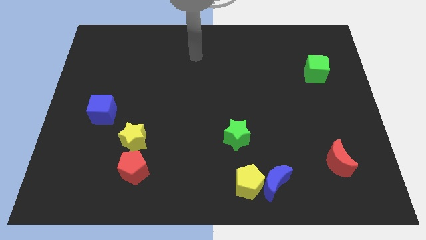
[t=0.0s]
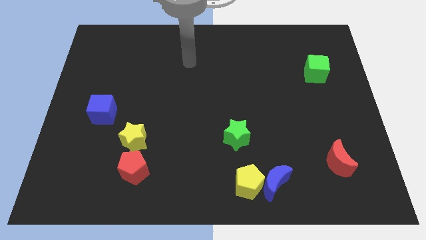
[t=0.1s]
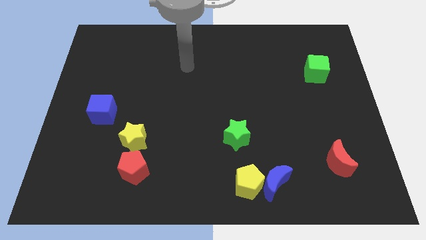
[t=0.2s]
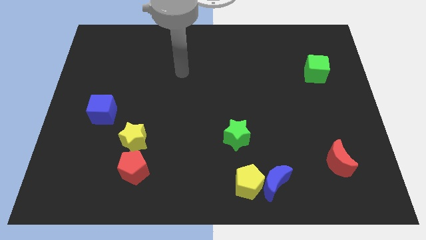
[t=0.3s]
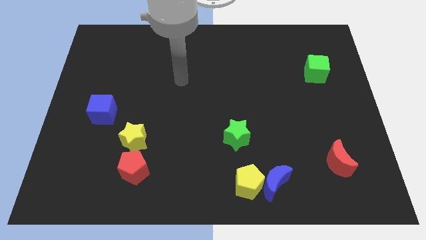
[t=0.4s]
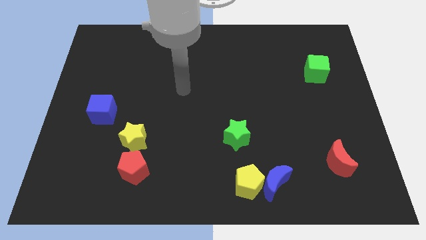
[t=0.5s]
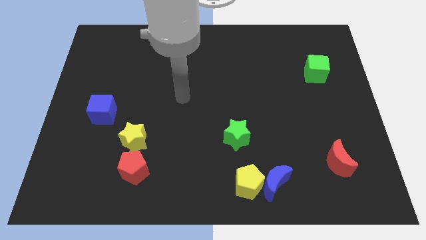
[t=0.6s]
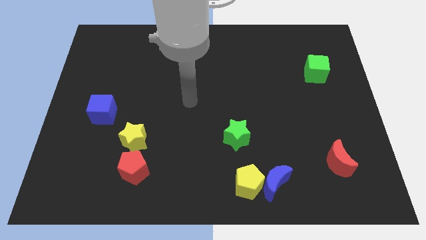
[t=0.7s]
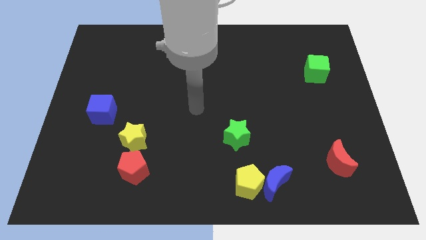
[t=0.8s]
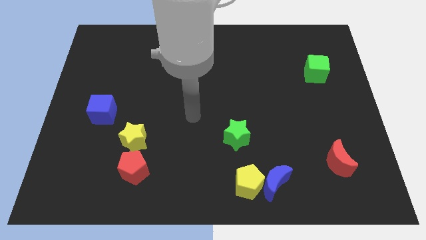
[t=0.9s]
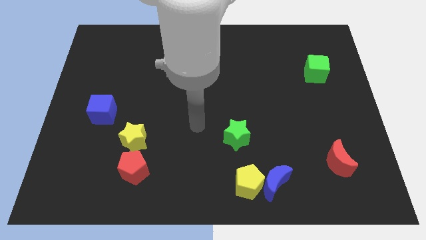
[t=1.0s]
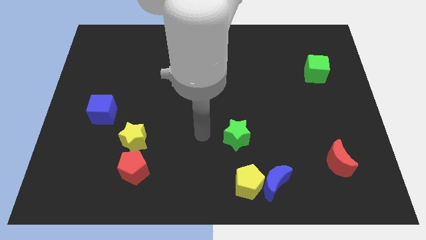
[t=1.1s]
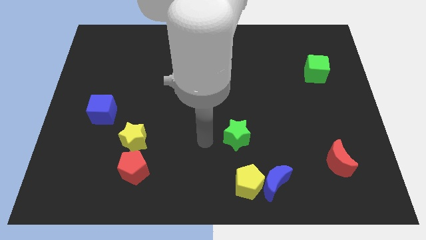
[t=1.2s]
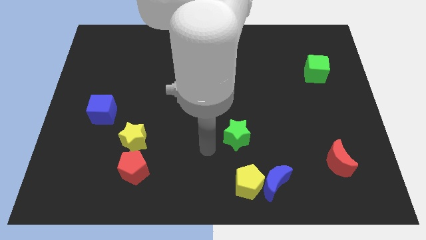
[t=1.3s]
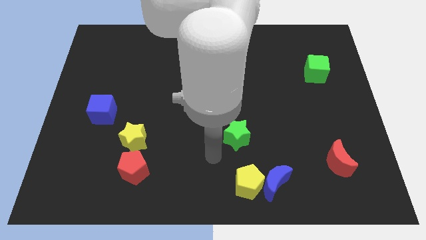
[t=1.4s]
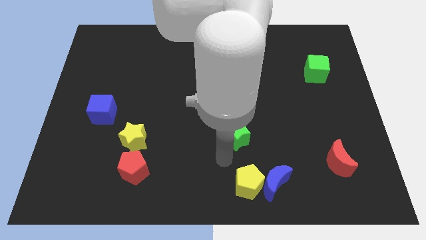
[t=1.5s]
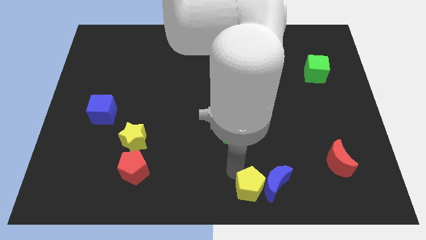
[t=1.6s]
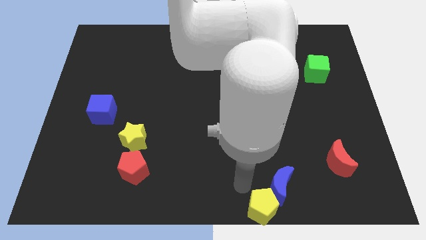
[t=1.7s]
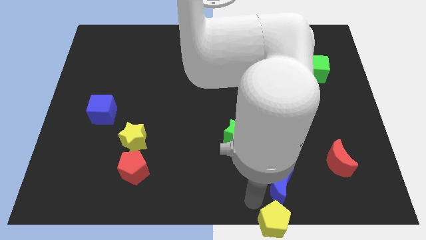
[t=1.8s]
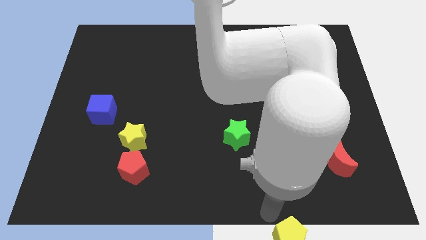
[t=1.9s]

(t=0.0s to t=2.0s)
separate the blue moon from the yellow pentagon

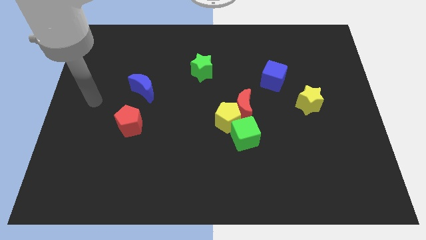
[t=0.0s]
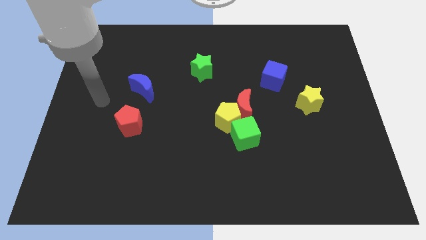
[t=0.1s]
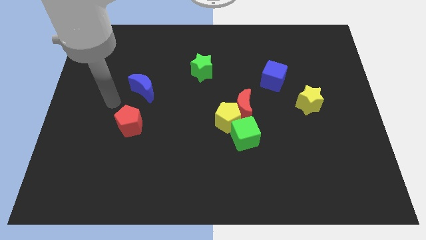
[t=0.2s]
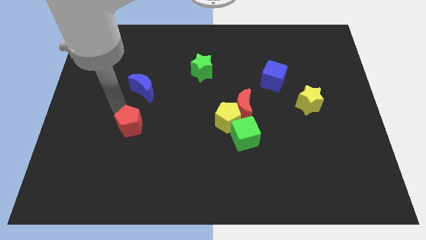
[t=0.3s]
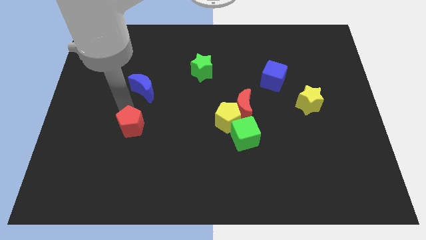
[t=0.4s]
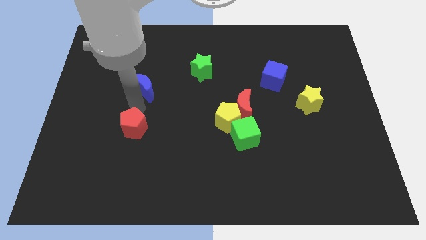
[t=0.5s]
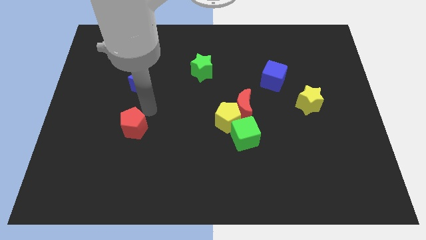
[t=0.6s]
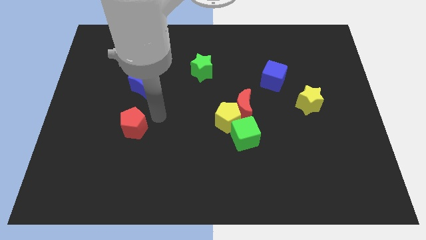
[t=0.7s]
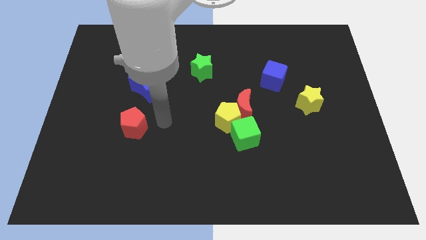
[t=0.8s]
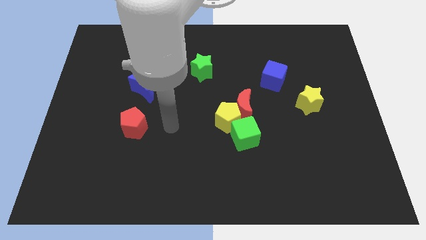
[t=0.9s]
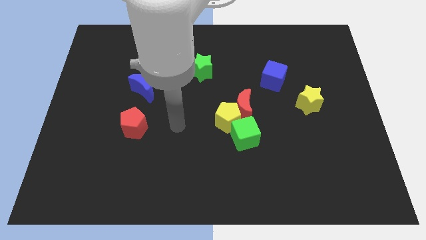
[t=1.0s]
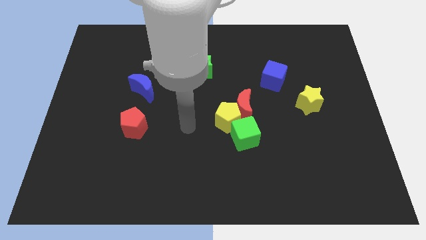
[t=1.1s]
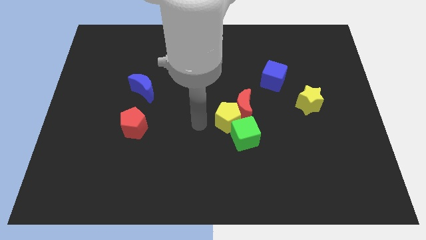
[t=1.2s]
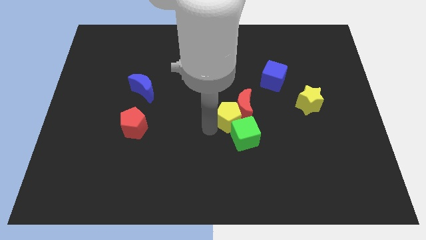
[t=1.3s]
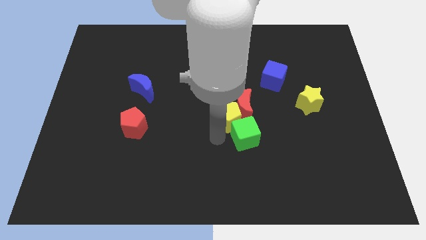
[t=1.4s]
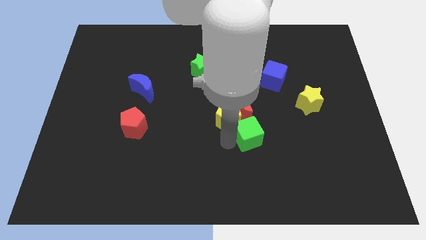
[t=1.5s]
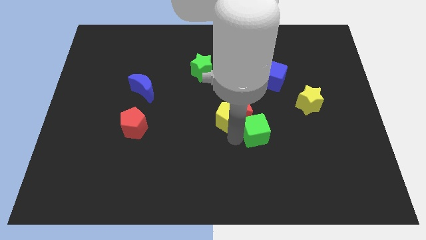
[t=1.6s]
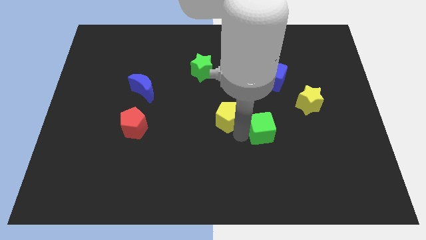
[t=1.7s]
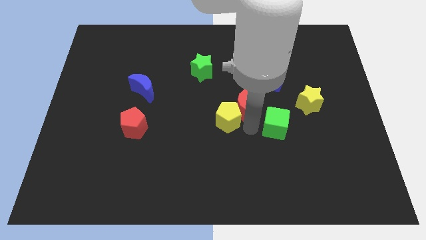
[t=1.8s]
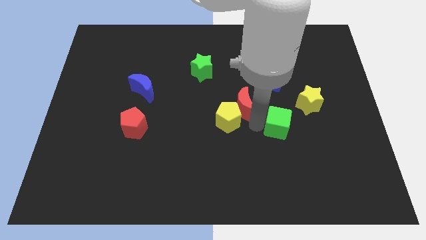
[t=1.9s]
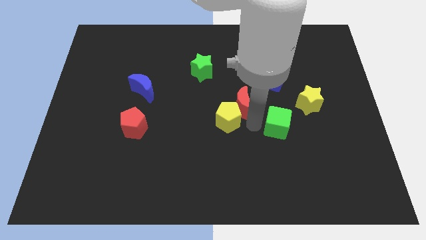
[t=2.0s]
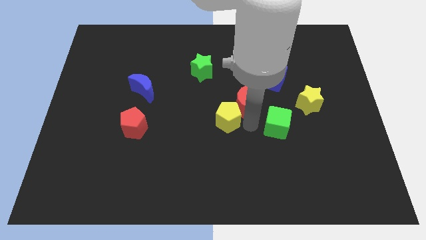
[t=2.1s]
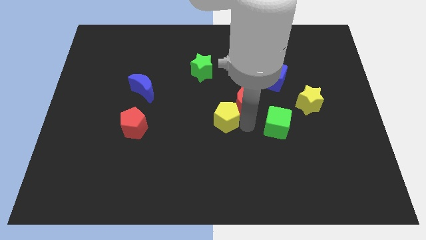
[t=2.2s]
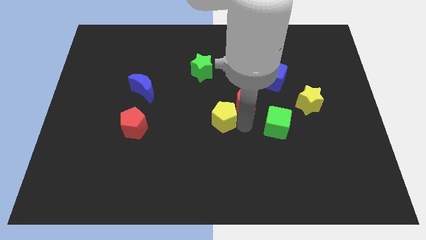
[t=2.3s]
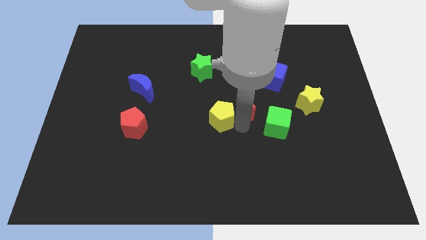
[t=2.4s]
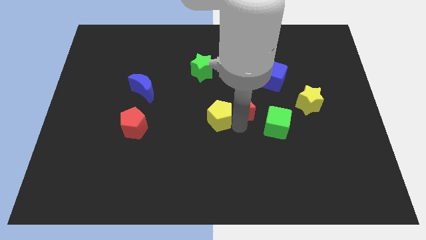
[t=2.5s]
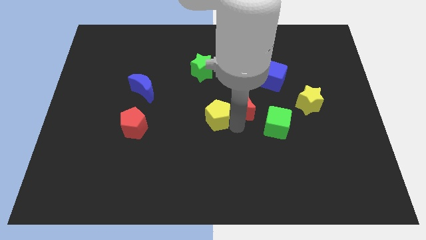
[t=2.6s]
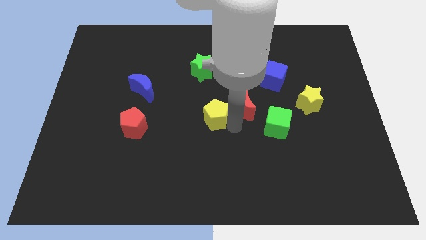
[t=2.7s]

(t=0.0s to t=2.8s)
move the yellow pentagon away from the red moon and green cube

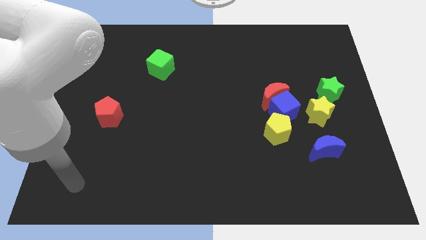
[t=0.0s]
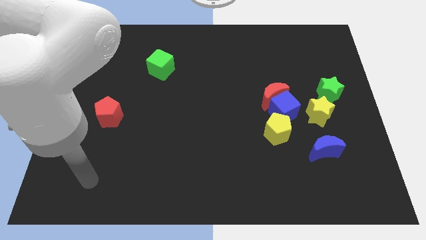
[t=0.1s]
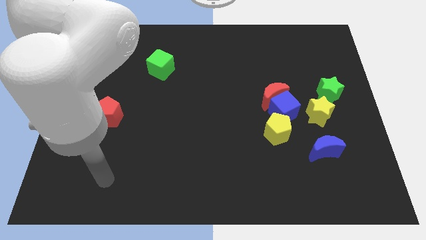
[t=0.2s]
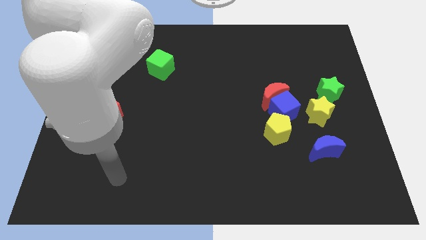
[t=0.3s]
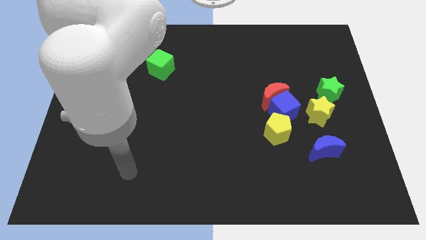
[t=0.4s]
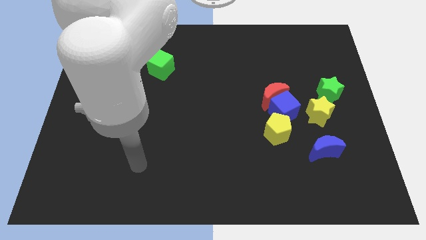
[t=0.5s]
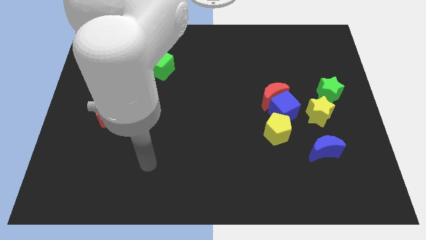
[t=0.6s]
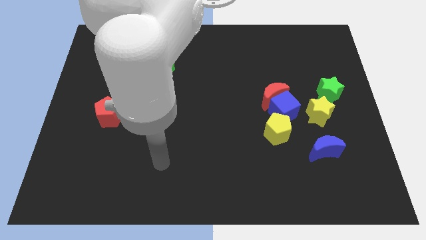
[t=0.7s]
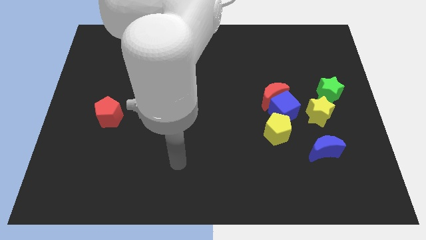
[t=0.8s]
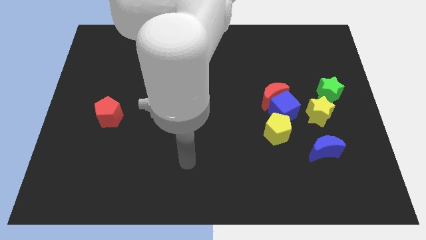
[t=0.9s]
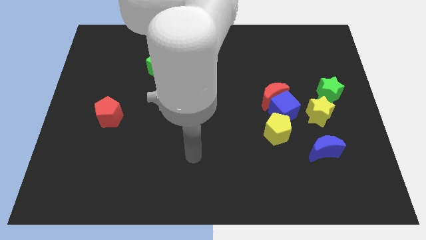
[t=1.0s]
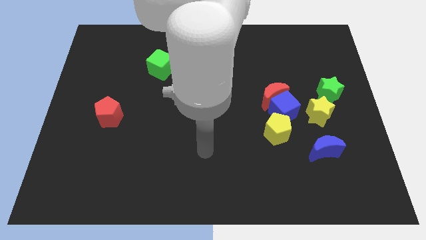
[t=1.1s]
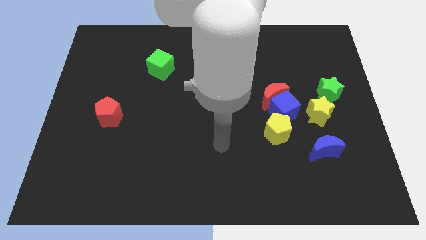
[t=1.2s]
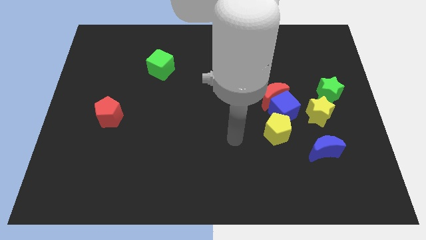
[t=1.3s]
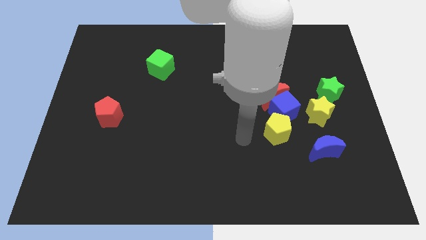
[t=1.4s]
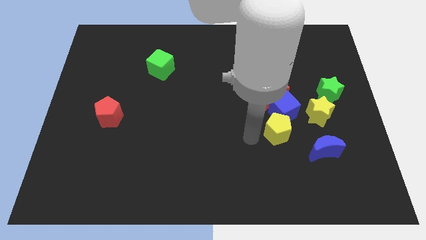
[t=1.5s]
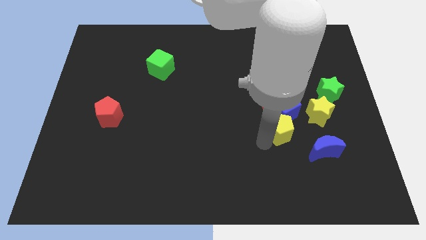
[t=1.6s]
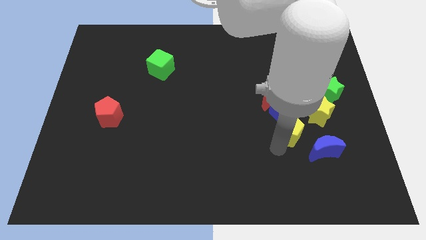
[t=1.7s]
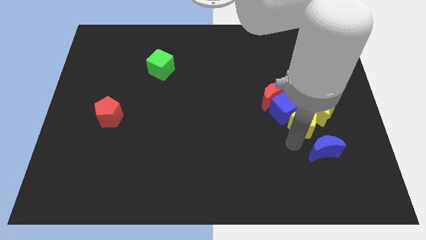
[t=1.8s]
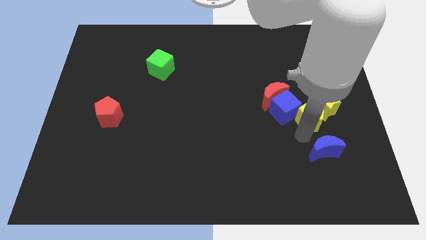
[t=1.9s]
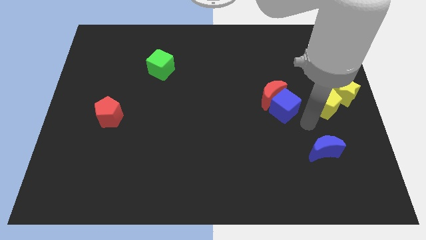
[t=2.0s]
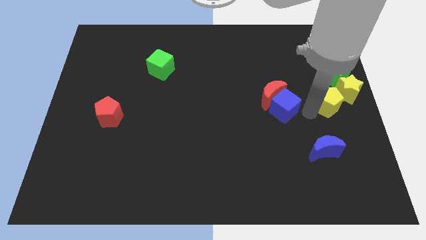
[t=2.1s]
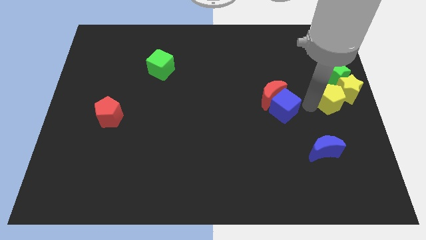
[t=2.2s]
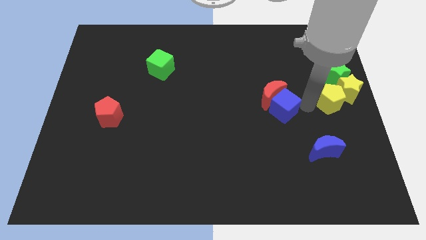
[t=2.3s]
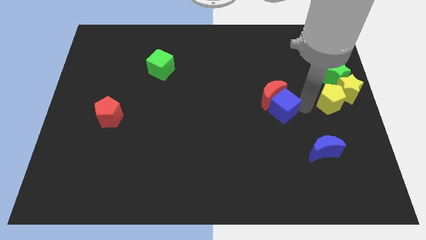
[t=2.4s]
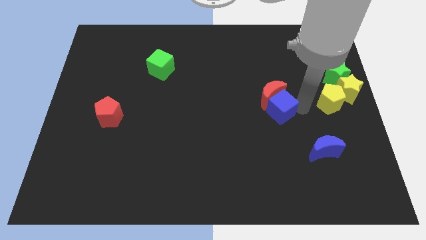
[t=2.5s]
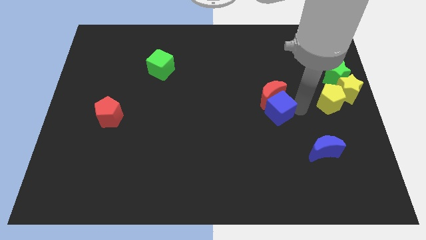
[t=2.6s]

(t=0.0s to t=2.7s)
separate the blue cube from the group of blocks

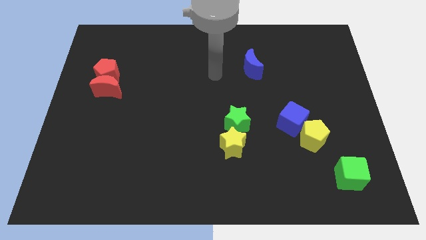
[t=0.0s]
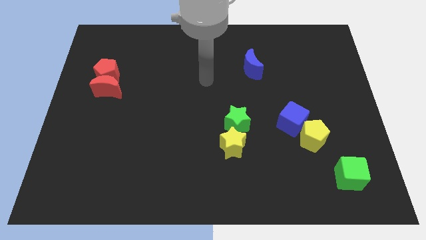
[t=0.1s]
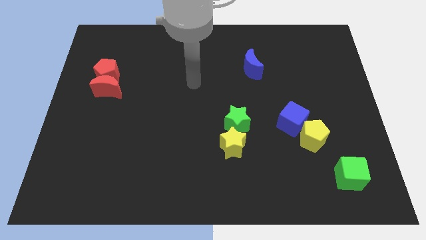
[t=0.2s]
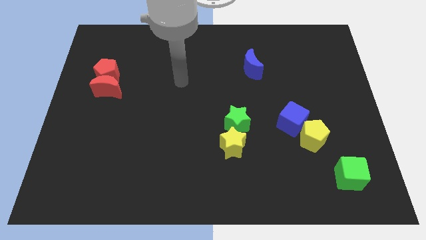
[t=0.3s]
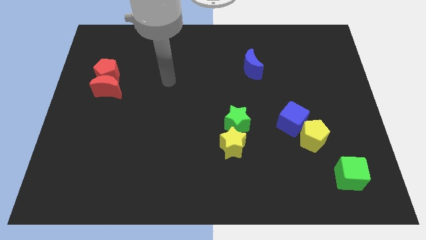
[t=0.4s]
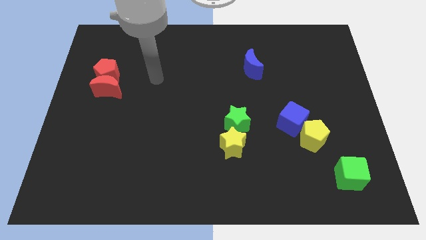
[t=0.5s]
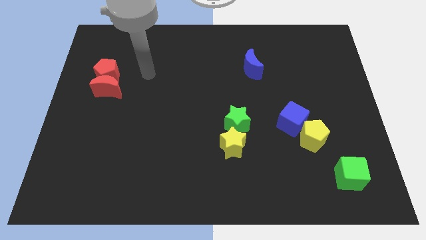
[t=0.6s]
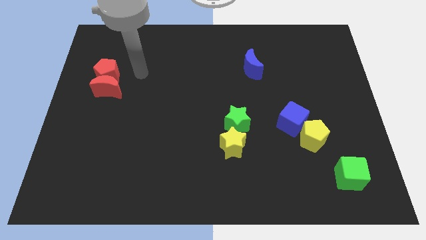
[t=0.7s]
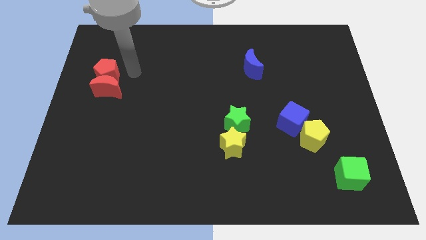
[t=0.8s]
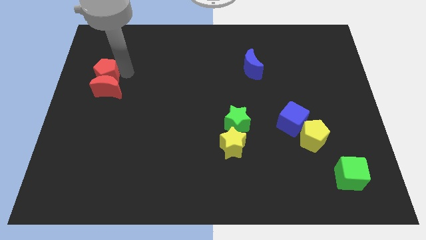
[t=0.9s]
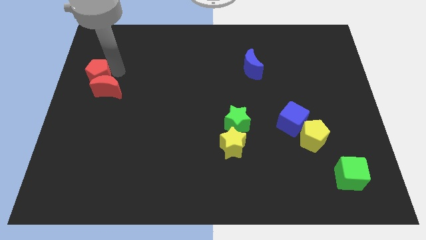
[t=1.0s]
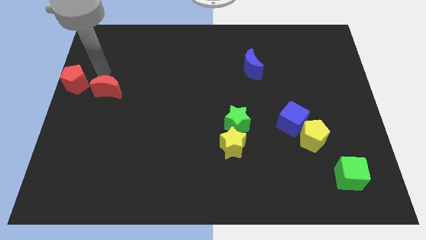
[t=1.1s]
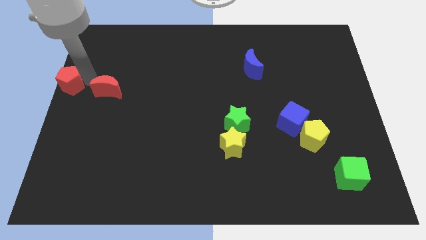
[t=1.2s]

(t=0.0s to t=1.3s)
pull the red moon apart from the red pentagon

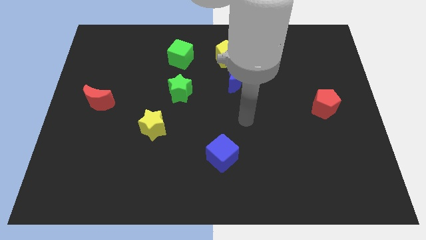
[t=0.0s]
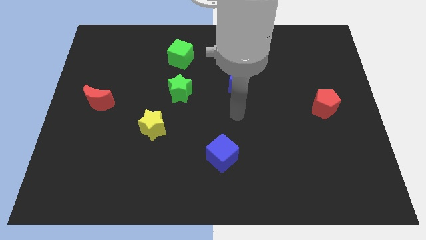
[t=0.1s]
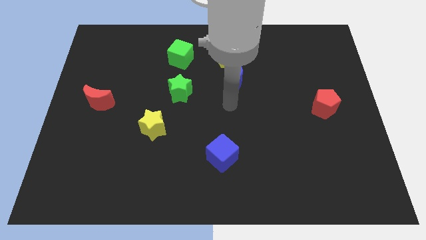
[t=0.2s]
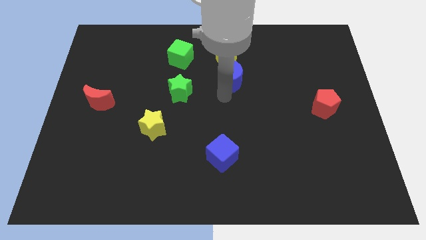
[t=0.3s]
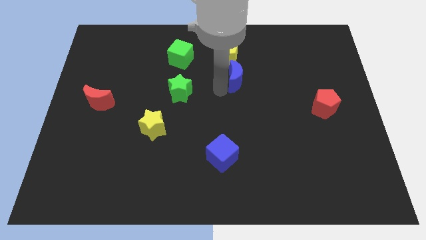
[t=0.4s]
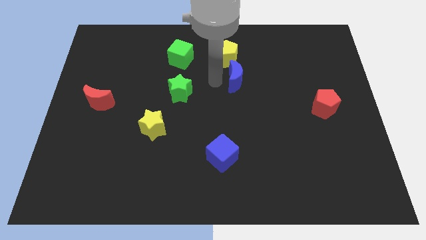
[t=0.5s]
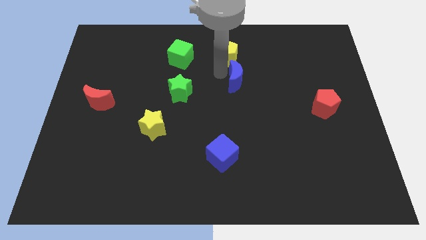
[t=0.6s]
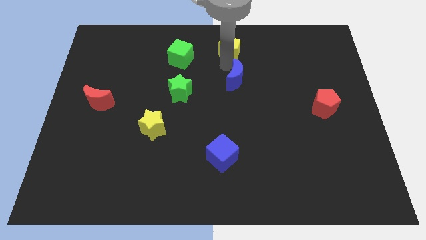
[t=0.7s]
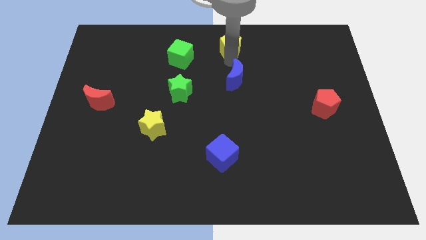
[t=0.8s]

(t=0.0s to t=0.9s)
pull the blue moon apart from the yellow pentagon
